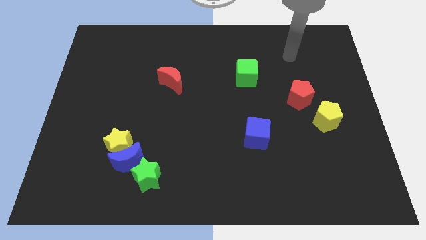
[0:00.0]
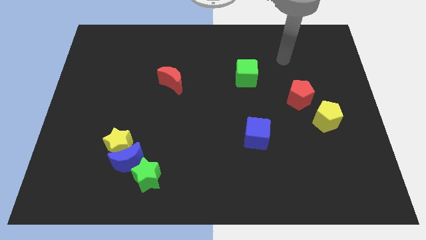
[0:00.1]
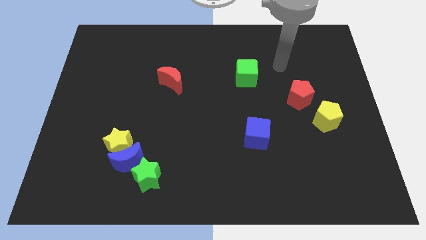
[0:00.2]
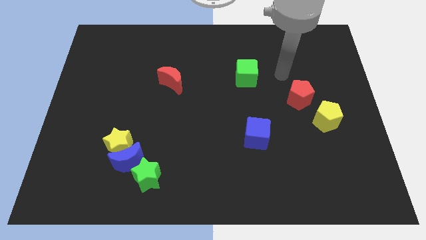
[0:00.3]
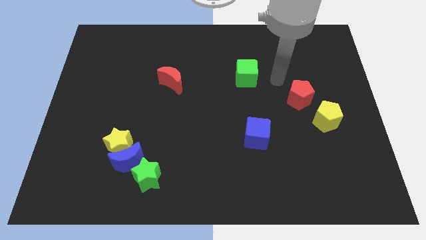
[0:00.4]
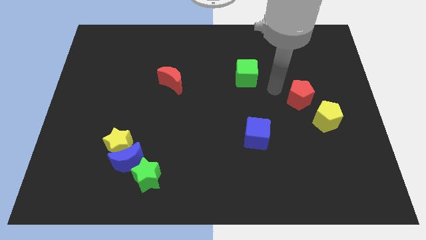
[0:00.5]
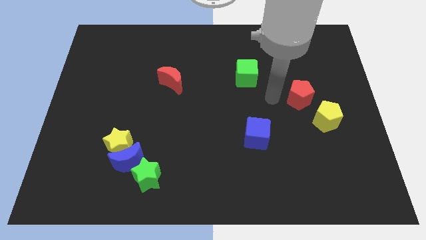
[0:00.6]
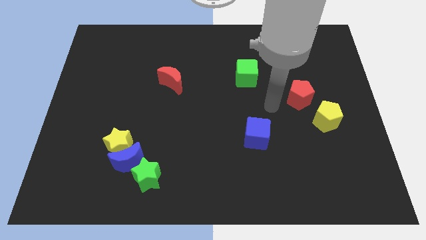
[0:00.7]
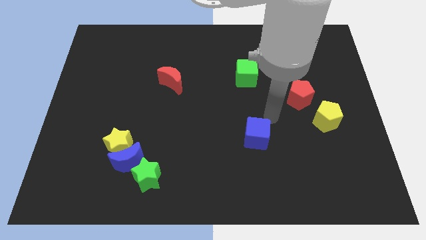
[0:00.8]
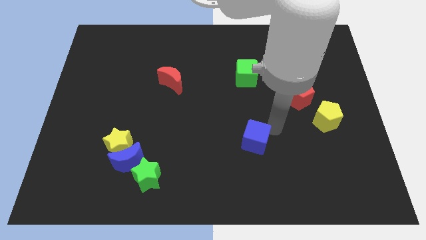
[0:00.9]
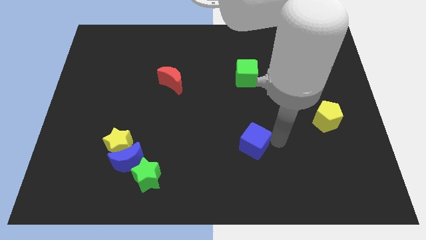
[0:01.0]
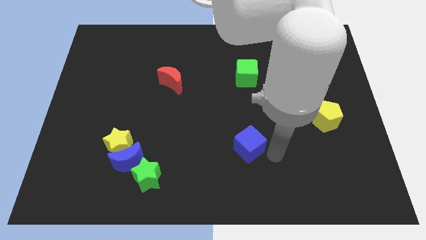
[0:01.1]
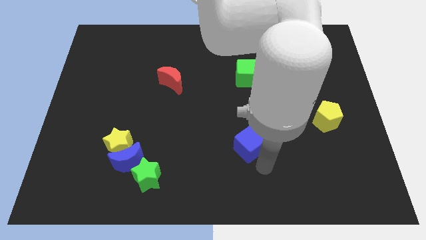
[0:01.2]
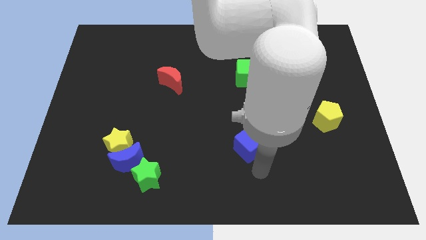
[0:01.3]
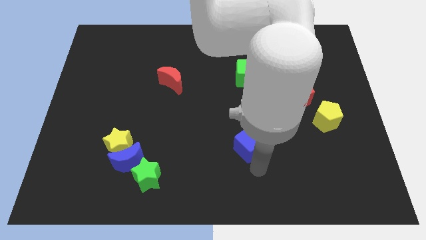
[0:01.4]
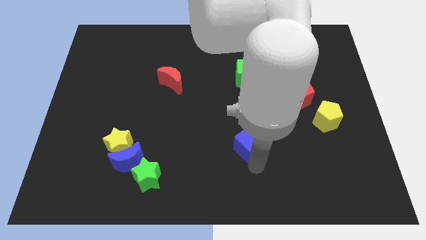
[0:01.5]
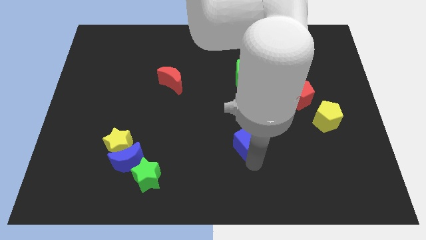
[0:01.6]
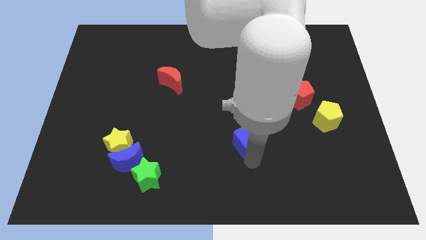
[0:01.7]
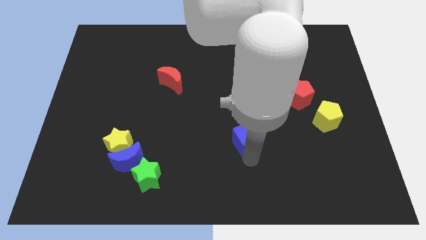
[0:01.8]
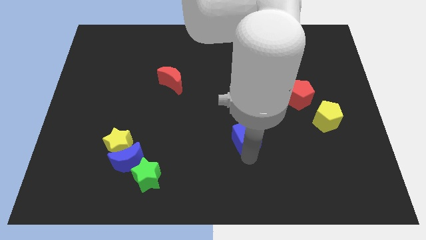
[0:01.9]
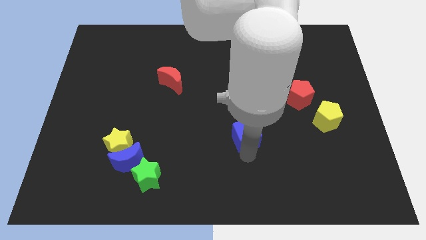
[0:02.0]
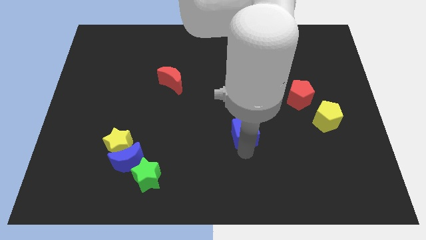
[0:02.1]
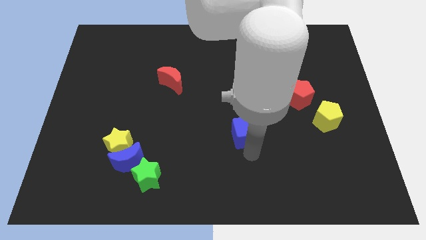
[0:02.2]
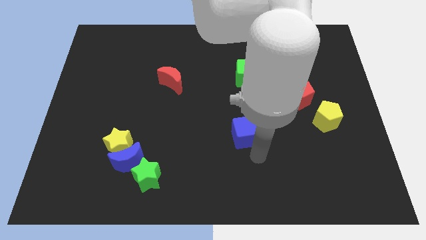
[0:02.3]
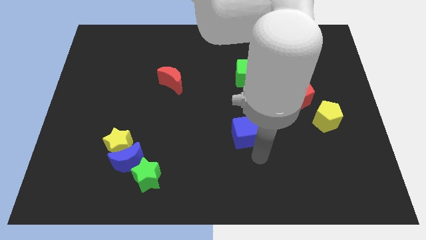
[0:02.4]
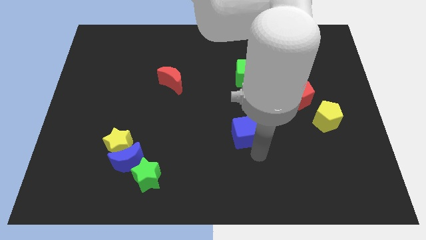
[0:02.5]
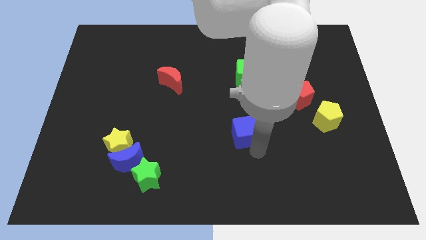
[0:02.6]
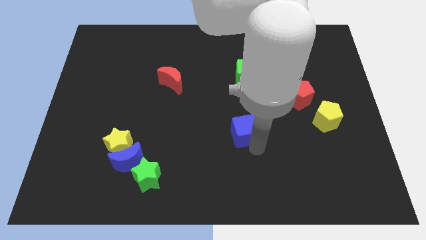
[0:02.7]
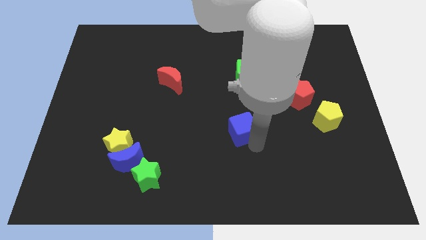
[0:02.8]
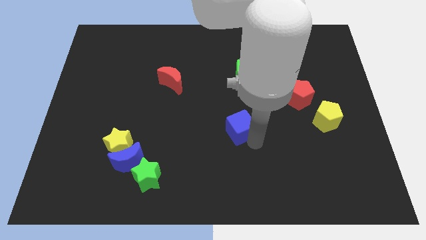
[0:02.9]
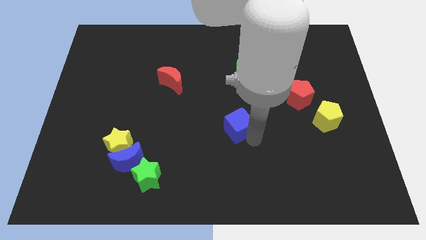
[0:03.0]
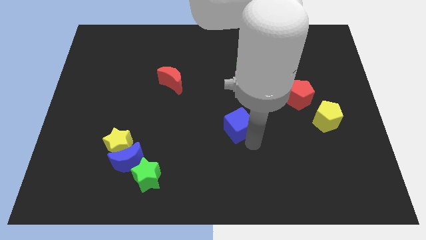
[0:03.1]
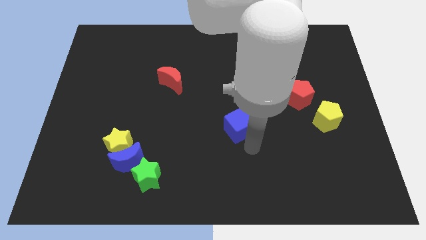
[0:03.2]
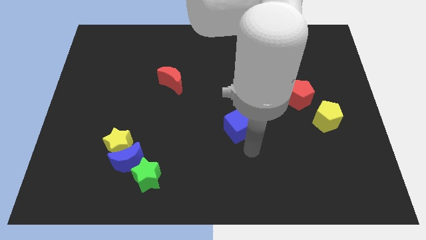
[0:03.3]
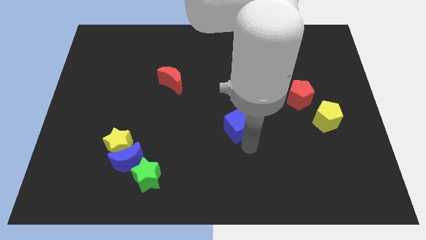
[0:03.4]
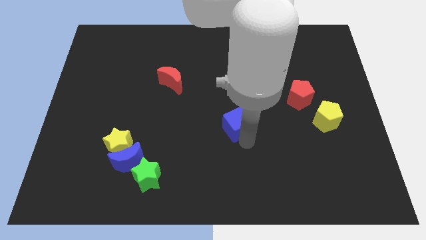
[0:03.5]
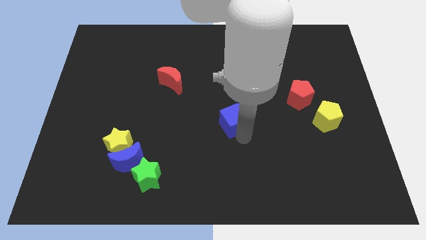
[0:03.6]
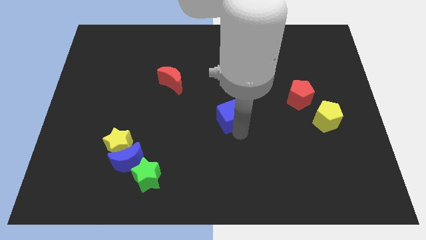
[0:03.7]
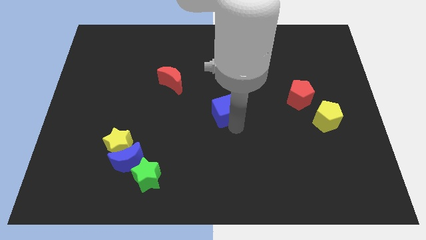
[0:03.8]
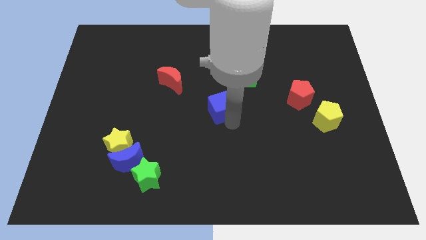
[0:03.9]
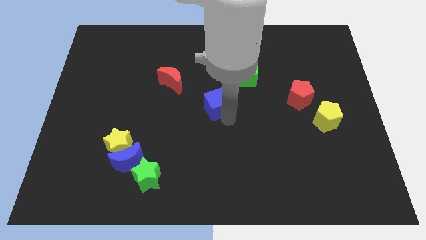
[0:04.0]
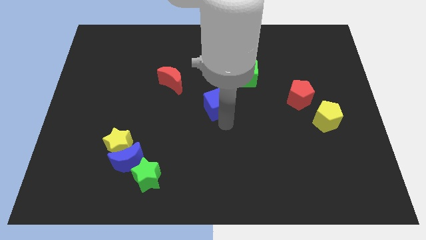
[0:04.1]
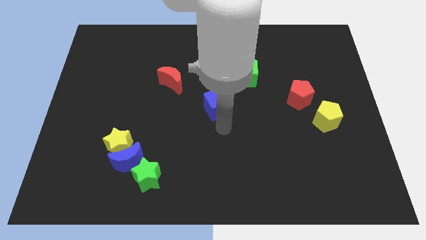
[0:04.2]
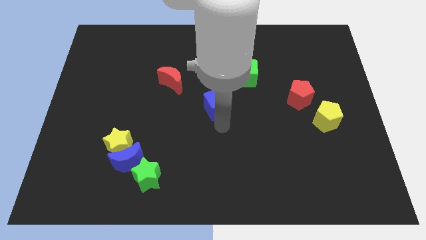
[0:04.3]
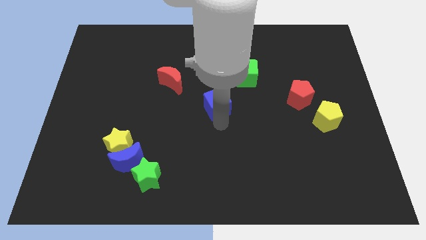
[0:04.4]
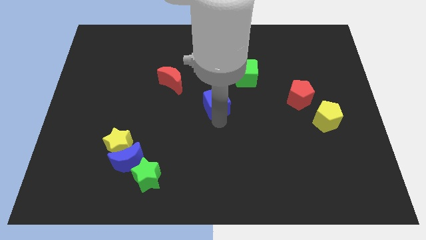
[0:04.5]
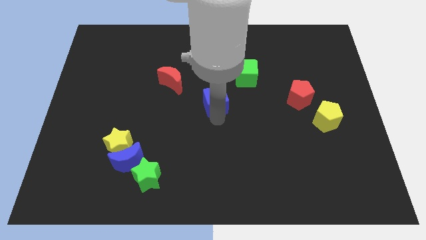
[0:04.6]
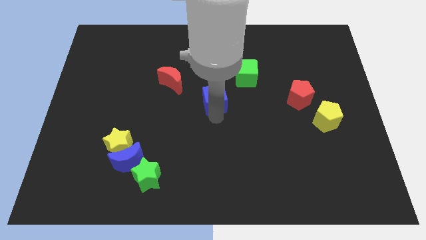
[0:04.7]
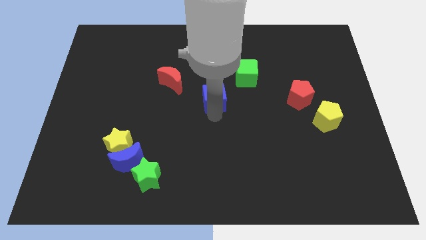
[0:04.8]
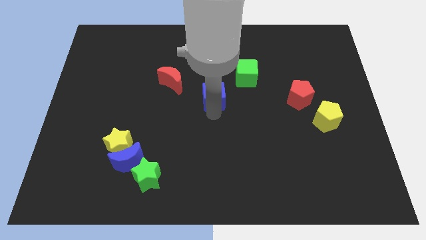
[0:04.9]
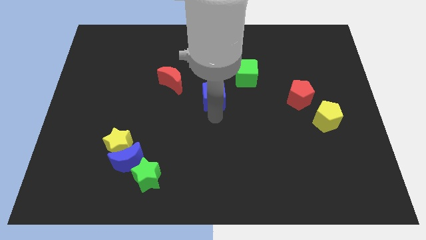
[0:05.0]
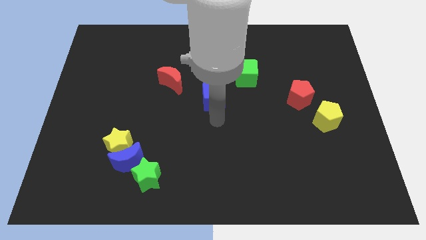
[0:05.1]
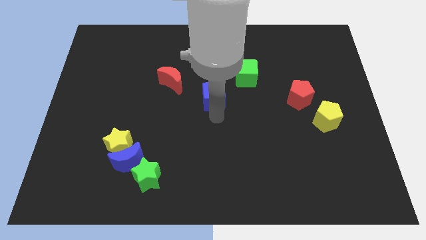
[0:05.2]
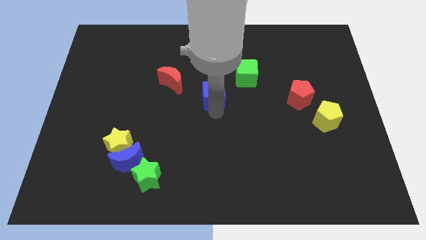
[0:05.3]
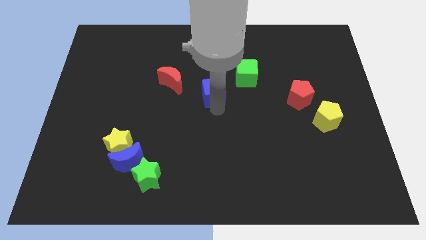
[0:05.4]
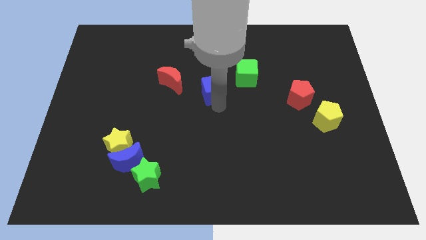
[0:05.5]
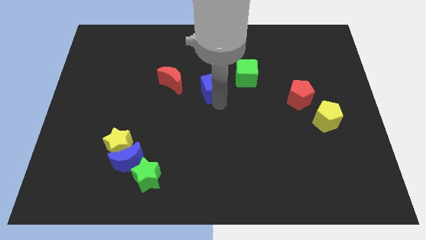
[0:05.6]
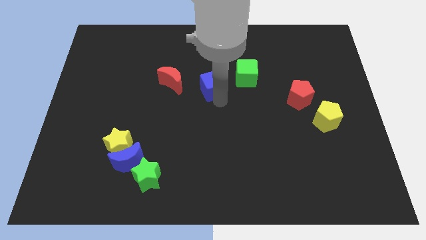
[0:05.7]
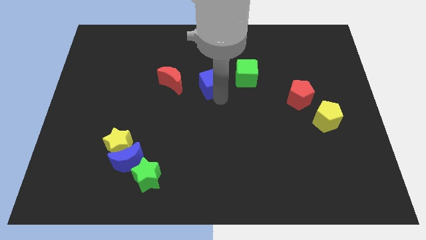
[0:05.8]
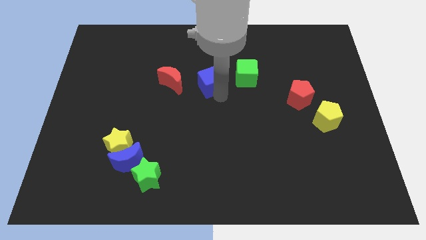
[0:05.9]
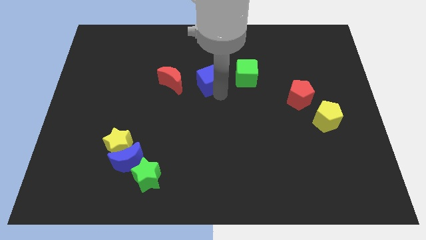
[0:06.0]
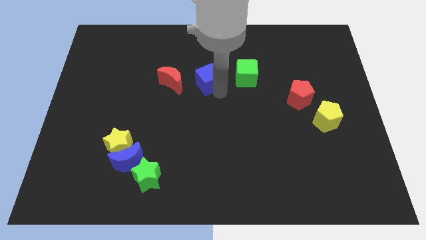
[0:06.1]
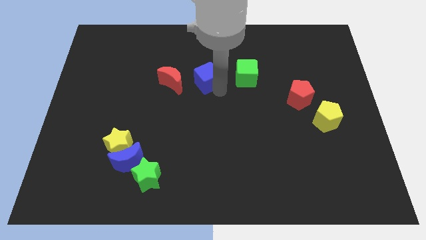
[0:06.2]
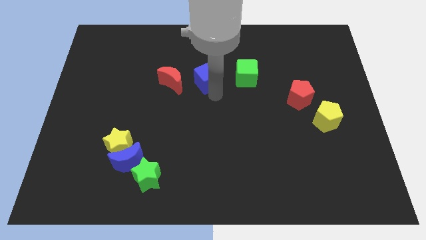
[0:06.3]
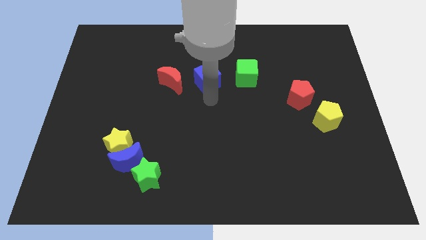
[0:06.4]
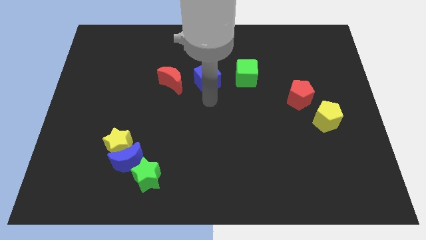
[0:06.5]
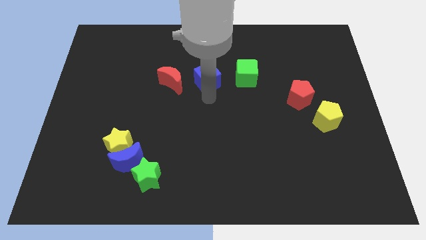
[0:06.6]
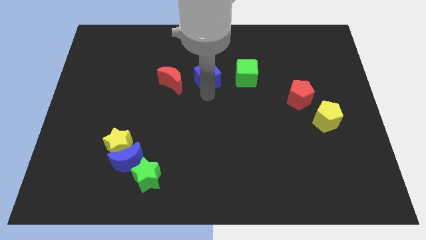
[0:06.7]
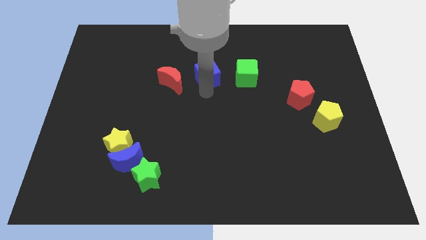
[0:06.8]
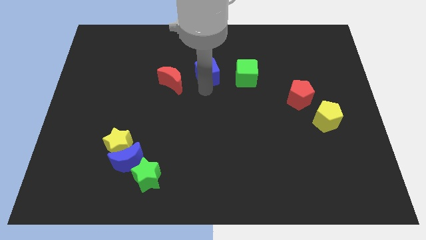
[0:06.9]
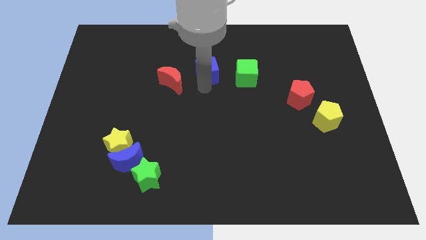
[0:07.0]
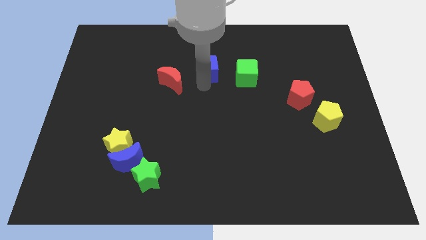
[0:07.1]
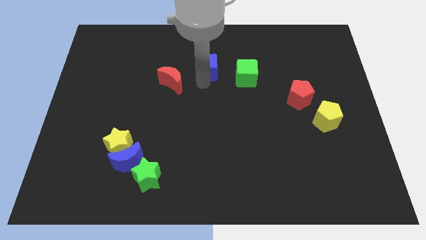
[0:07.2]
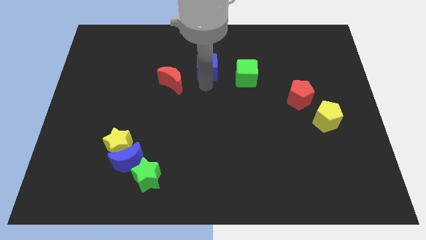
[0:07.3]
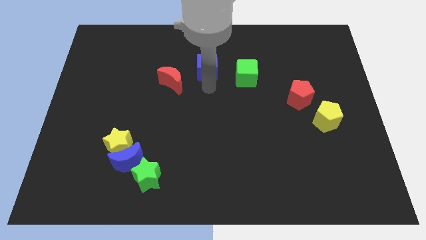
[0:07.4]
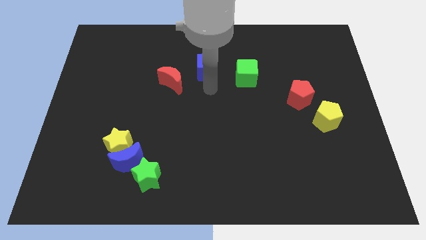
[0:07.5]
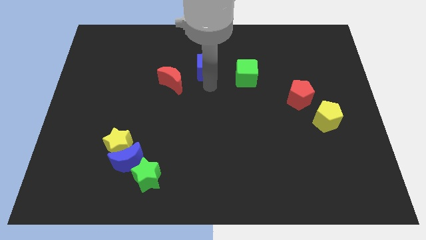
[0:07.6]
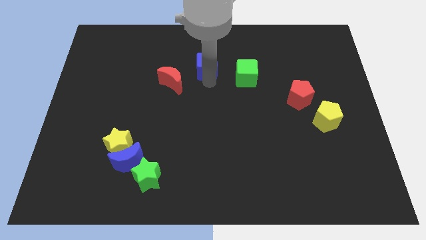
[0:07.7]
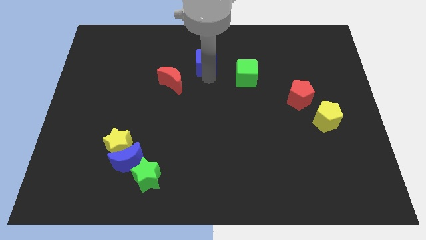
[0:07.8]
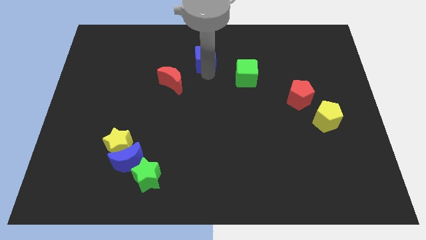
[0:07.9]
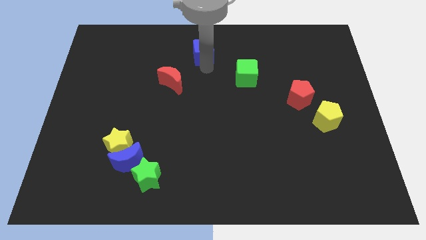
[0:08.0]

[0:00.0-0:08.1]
slide the blue cube to the top
